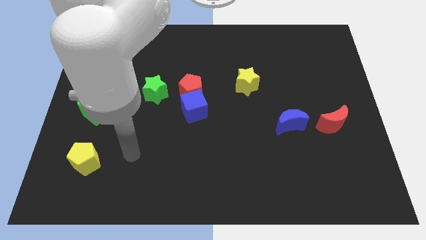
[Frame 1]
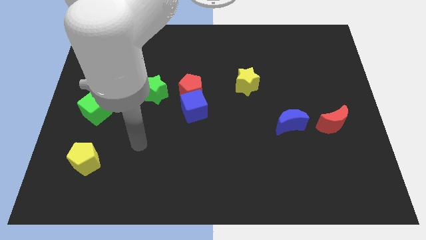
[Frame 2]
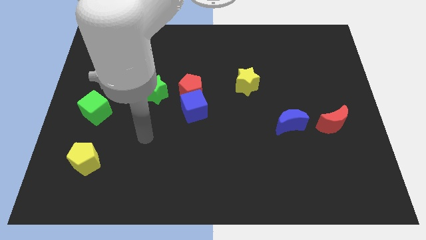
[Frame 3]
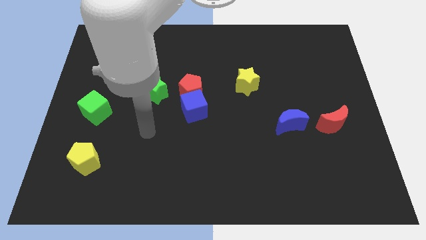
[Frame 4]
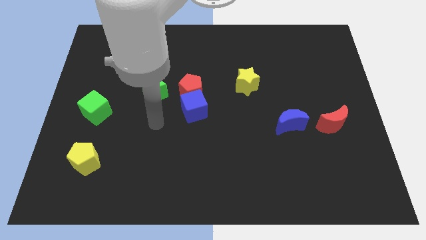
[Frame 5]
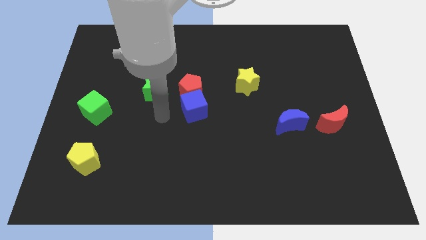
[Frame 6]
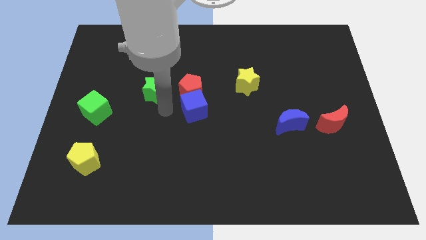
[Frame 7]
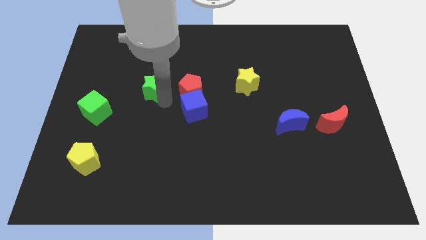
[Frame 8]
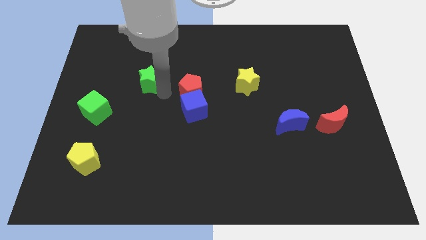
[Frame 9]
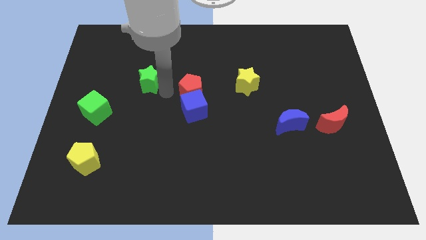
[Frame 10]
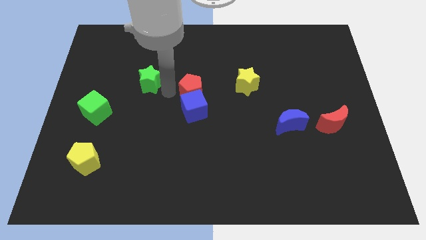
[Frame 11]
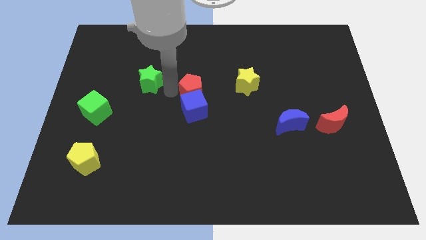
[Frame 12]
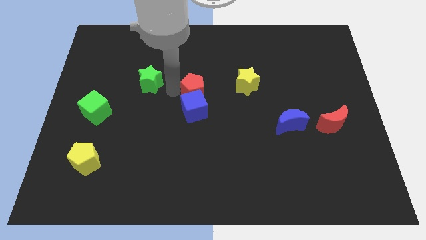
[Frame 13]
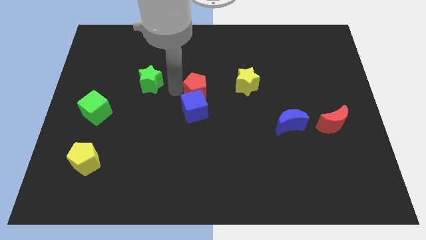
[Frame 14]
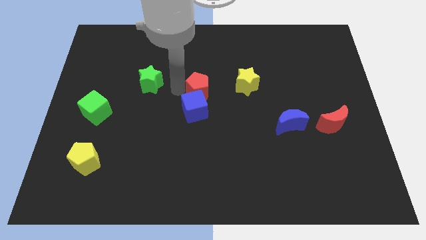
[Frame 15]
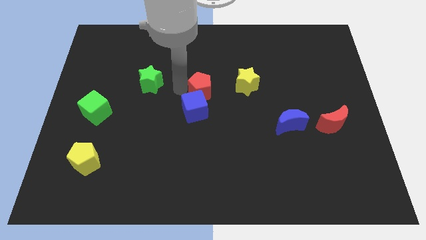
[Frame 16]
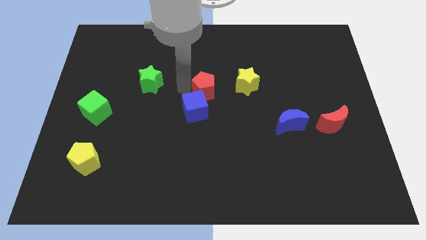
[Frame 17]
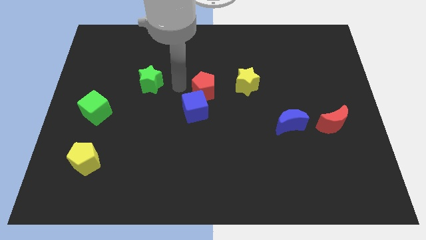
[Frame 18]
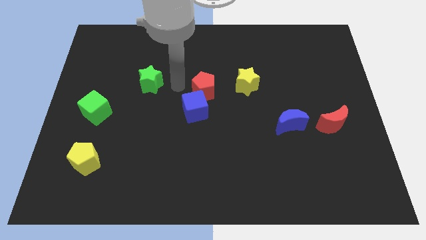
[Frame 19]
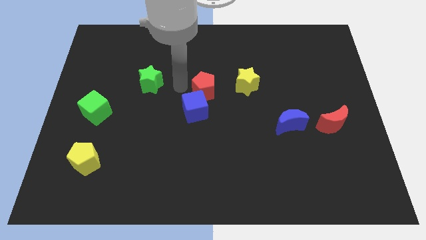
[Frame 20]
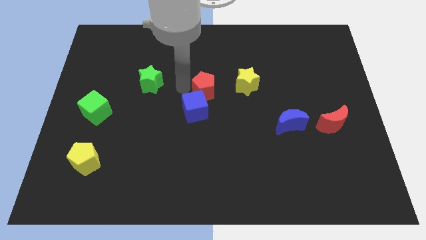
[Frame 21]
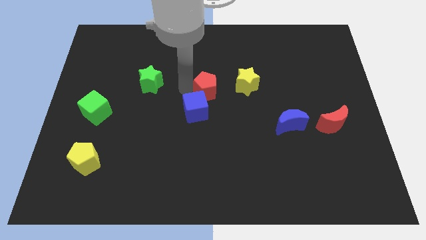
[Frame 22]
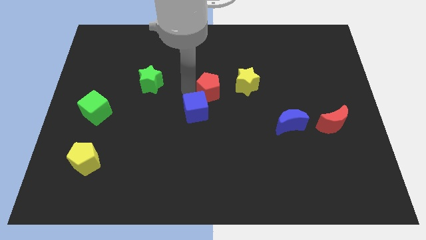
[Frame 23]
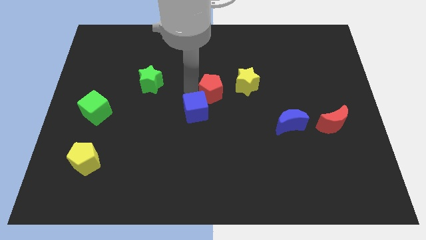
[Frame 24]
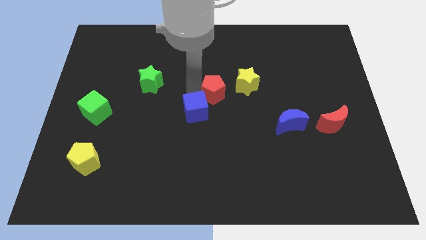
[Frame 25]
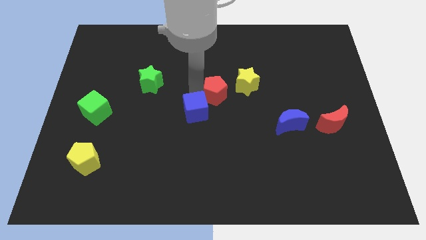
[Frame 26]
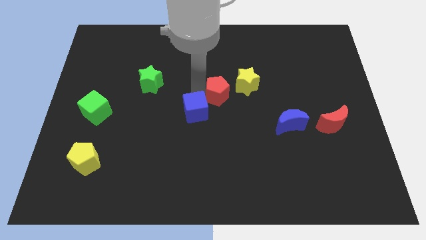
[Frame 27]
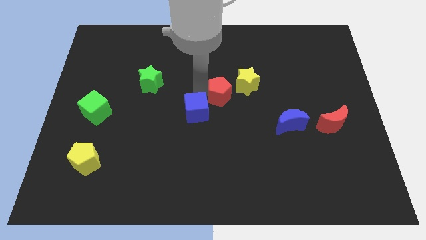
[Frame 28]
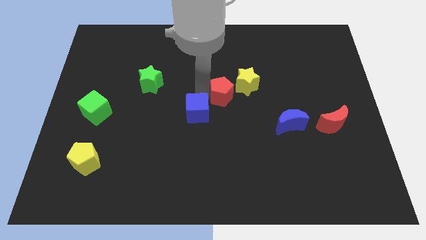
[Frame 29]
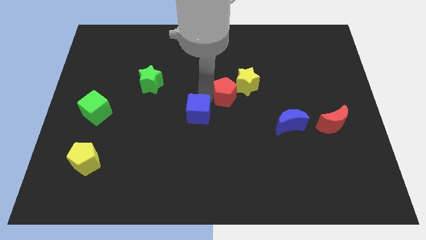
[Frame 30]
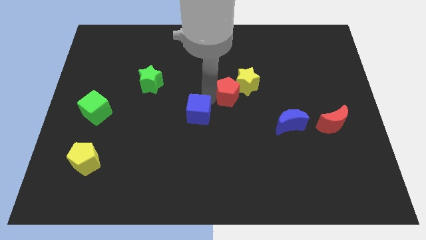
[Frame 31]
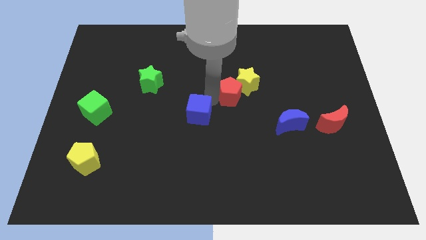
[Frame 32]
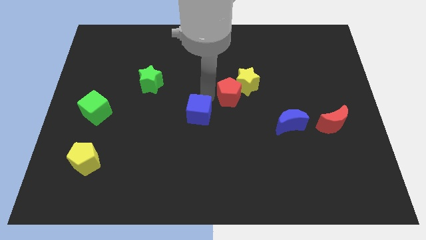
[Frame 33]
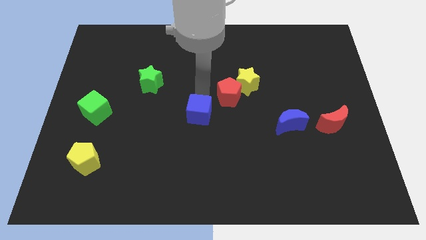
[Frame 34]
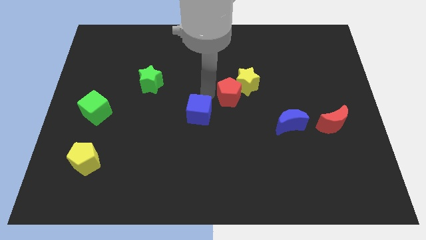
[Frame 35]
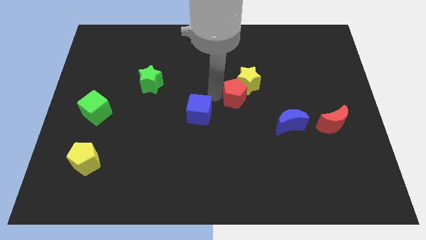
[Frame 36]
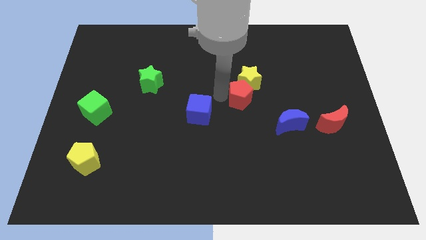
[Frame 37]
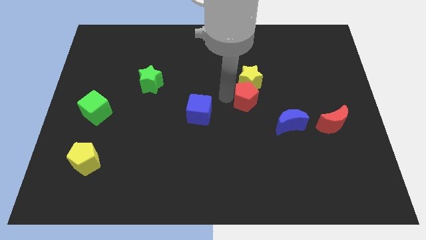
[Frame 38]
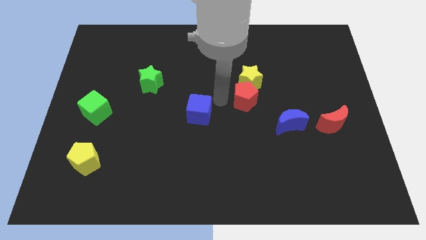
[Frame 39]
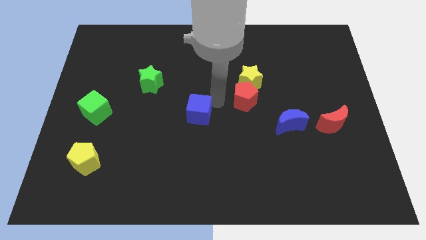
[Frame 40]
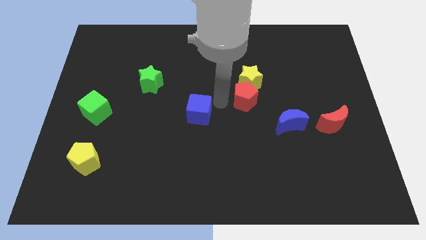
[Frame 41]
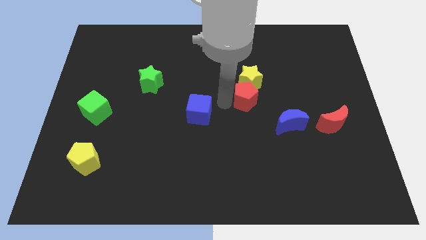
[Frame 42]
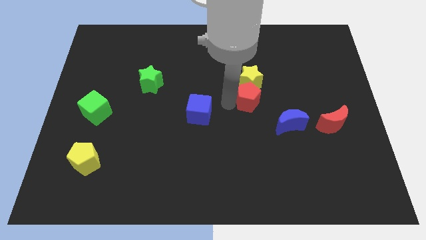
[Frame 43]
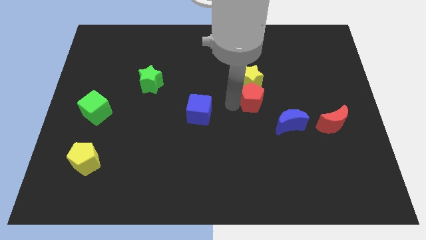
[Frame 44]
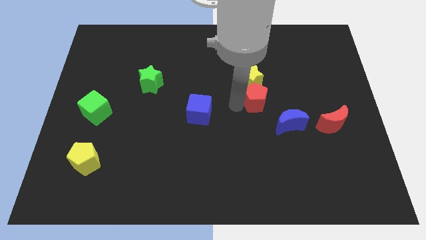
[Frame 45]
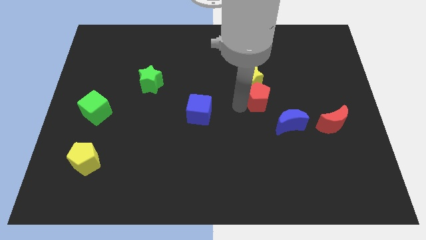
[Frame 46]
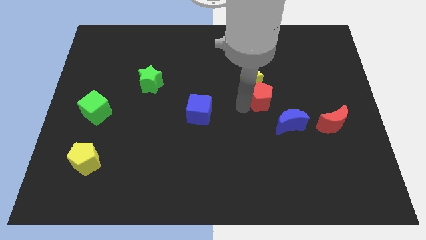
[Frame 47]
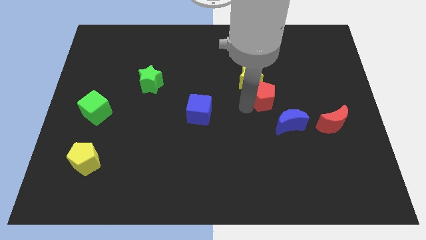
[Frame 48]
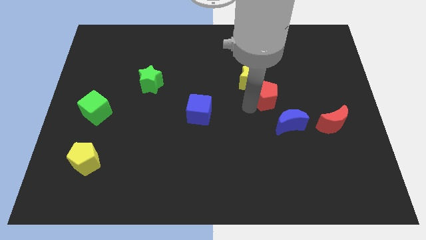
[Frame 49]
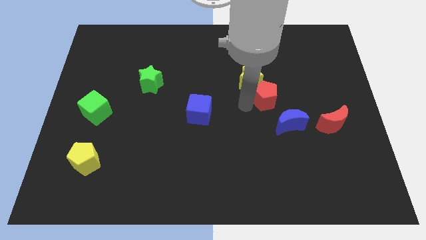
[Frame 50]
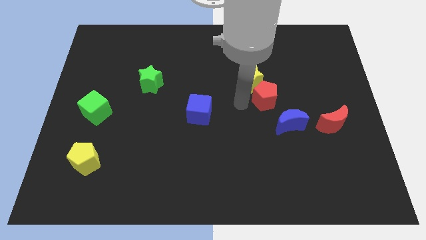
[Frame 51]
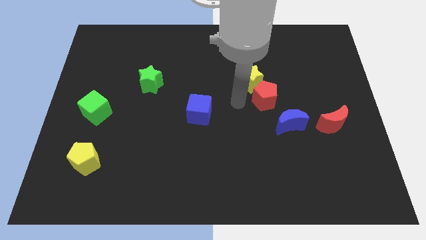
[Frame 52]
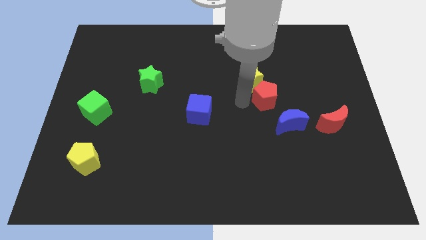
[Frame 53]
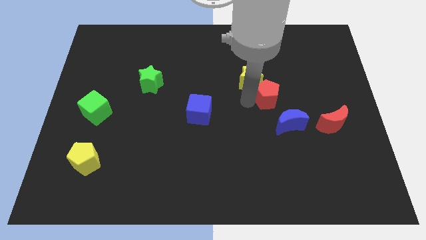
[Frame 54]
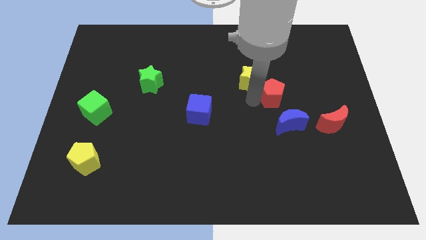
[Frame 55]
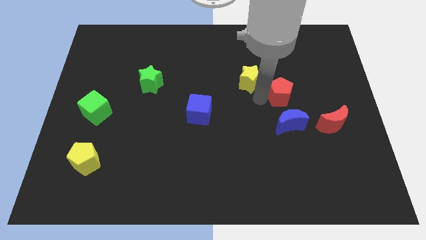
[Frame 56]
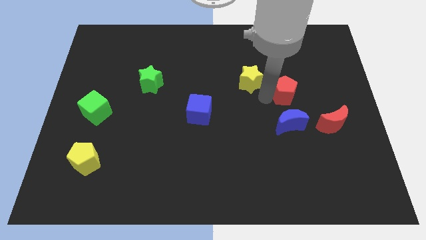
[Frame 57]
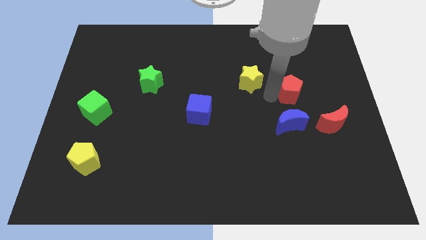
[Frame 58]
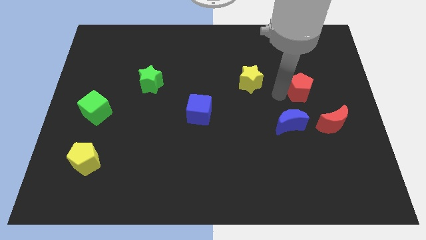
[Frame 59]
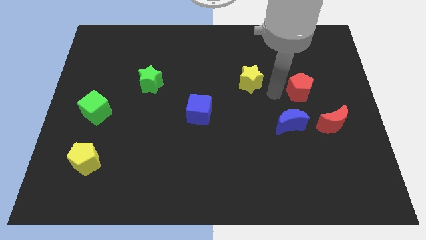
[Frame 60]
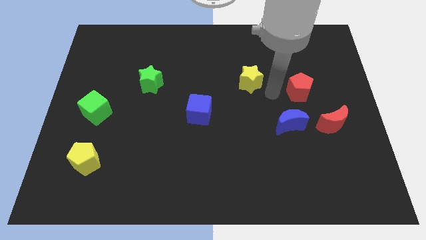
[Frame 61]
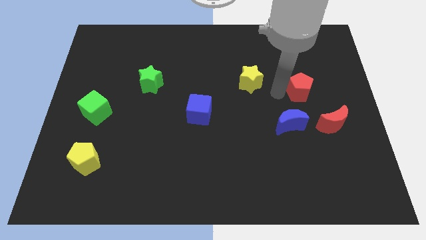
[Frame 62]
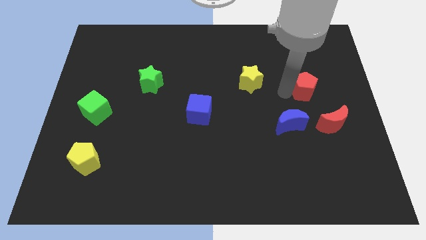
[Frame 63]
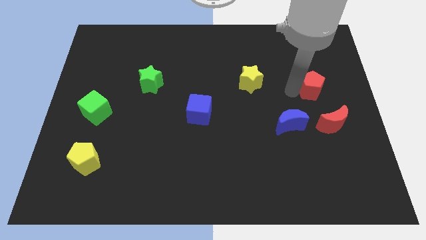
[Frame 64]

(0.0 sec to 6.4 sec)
push the red pentagon to the top side of the red moon
